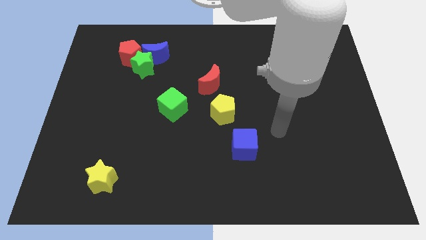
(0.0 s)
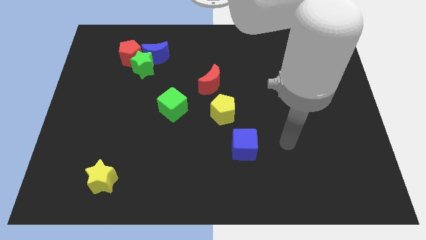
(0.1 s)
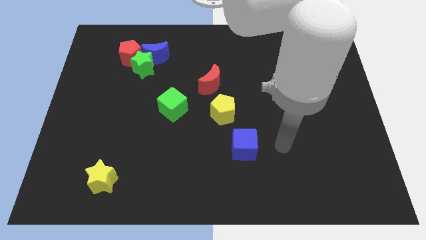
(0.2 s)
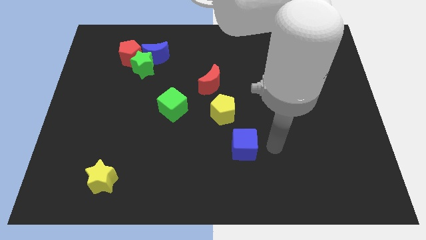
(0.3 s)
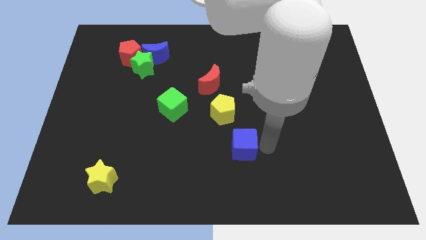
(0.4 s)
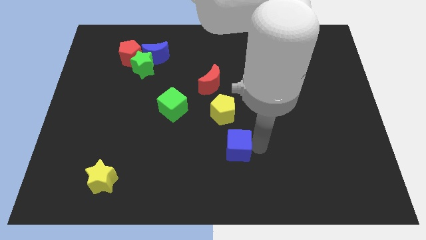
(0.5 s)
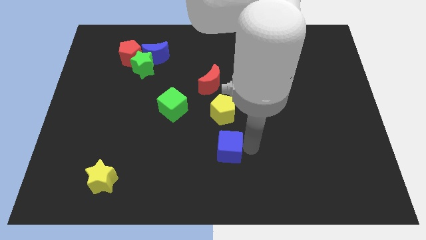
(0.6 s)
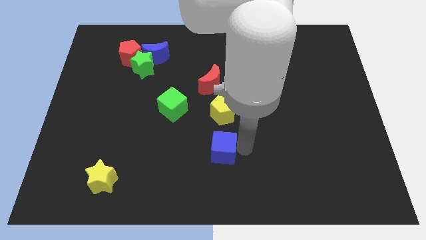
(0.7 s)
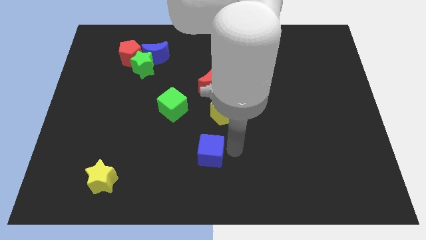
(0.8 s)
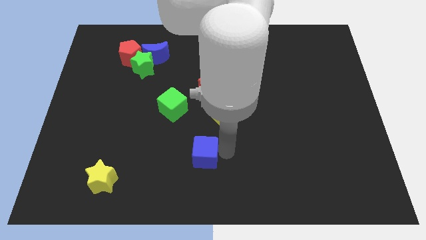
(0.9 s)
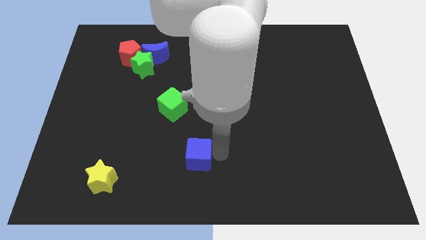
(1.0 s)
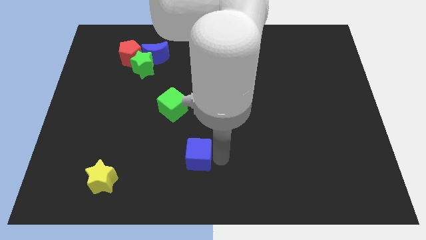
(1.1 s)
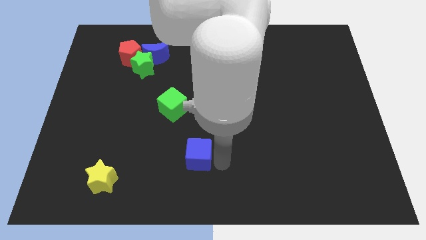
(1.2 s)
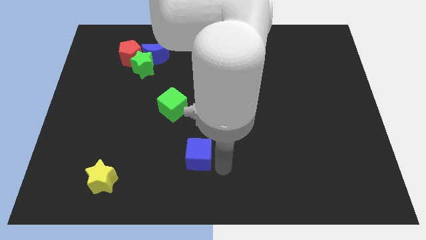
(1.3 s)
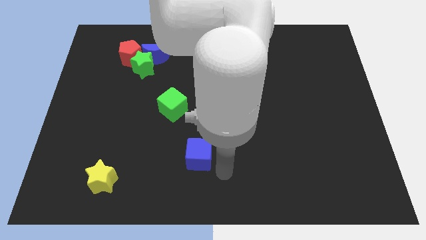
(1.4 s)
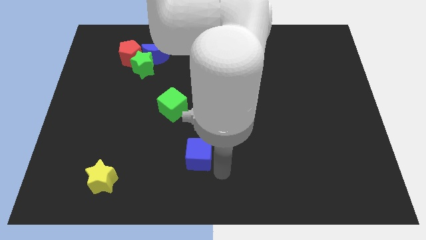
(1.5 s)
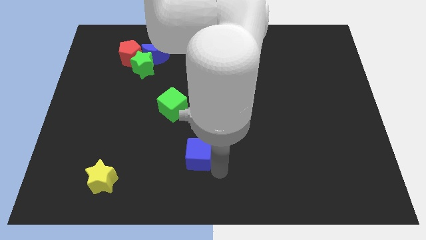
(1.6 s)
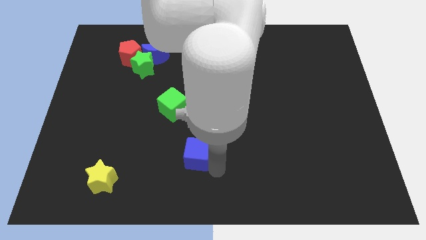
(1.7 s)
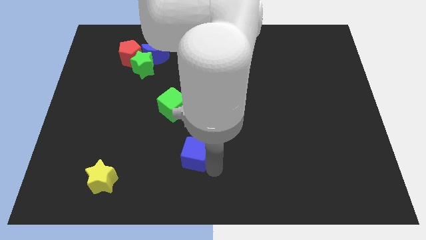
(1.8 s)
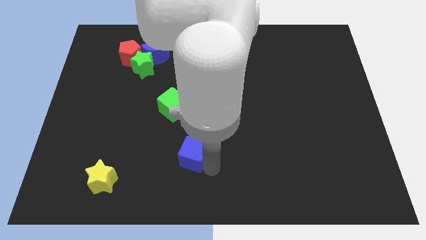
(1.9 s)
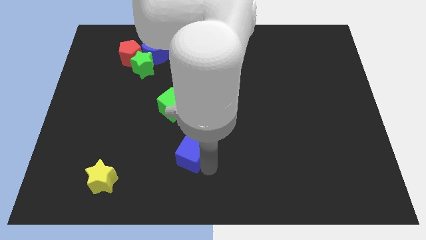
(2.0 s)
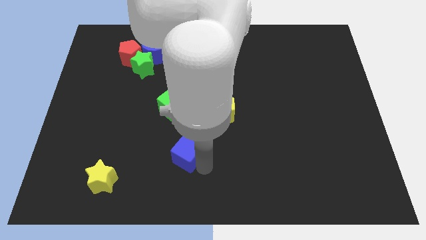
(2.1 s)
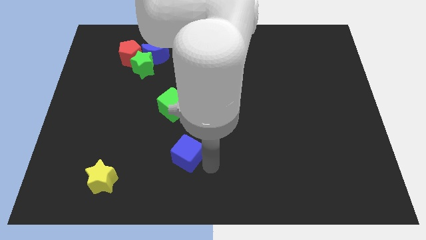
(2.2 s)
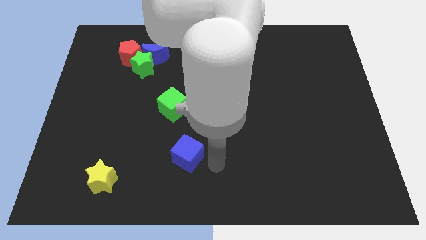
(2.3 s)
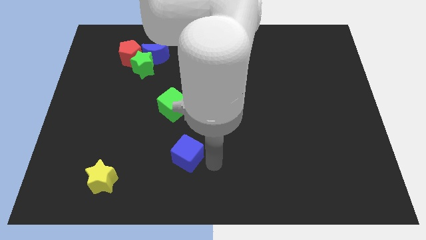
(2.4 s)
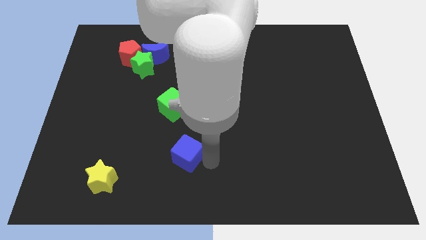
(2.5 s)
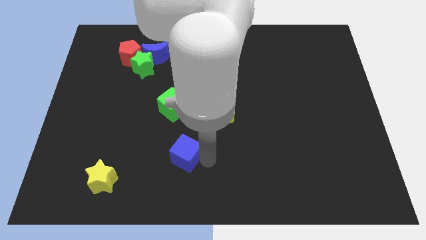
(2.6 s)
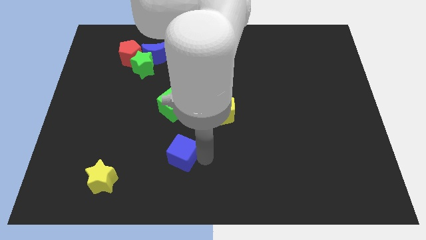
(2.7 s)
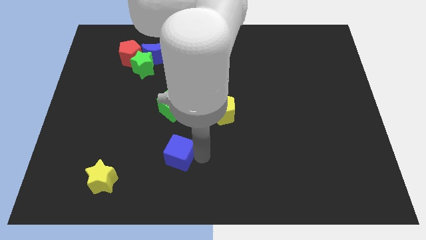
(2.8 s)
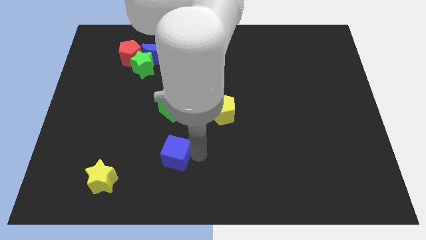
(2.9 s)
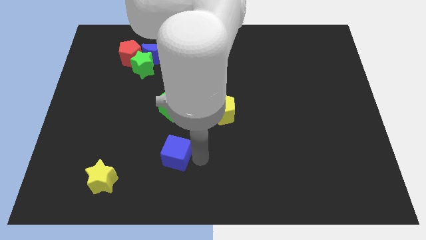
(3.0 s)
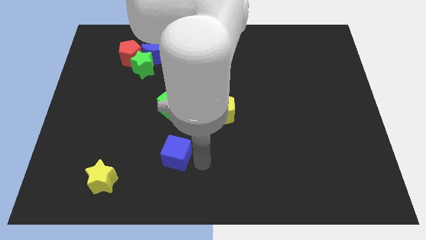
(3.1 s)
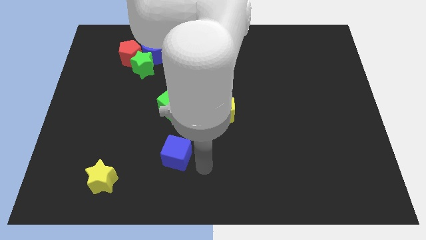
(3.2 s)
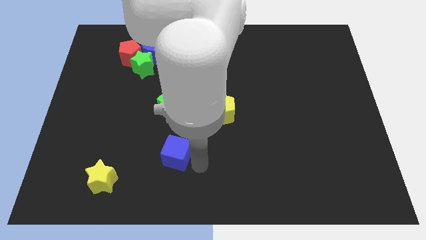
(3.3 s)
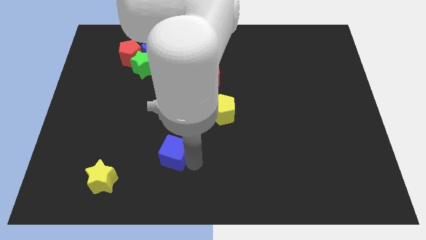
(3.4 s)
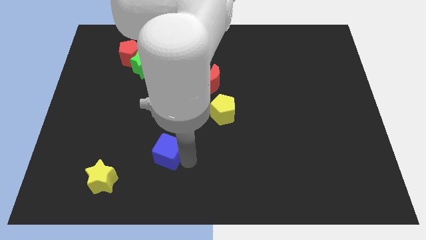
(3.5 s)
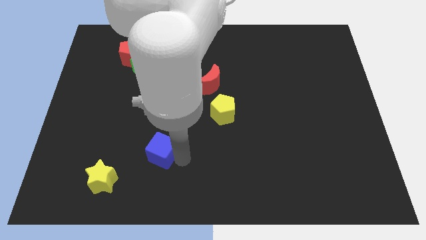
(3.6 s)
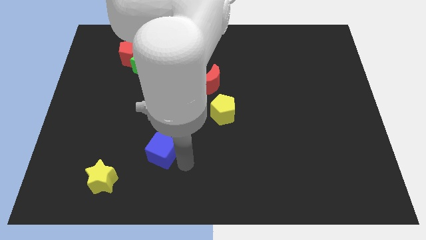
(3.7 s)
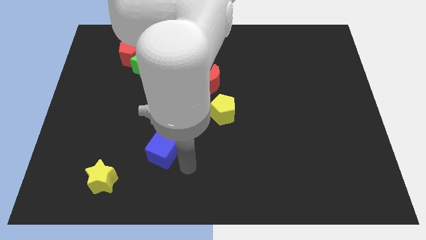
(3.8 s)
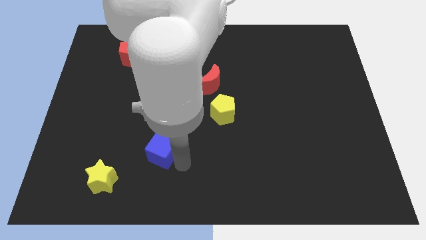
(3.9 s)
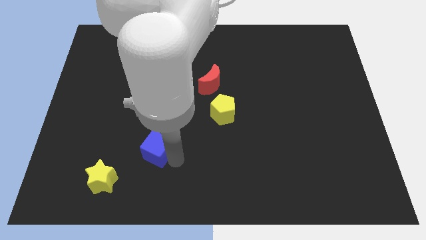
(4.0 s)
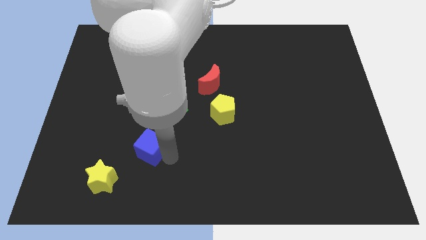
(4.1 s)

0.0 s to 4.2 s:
slide the blue cube left

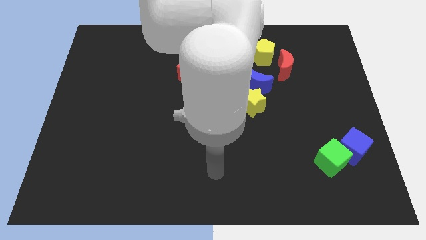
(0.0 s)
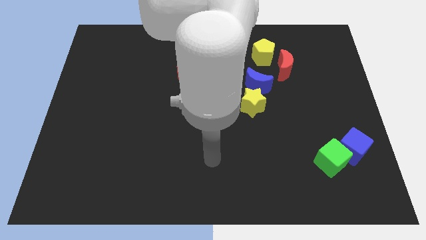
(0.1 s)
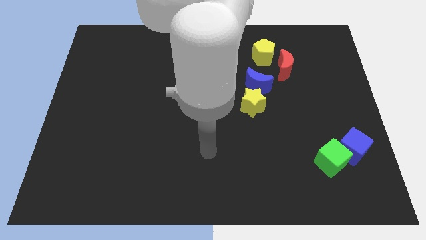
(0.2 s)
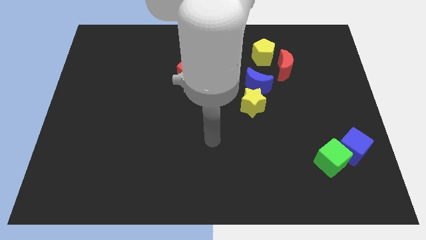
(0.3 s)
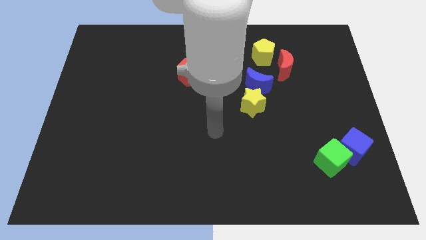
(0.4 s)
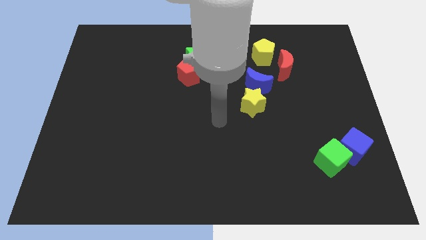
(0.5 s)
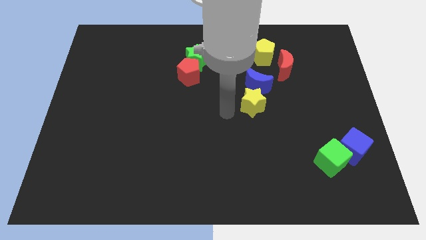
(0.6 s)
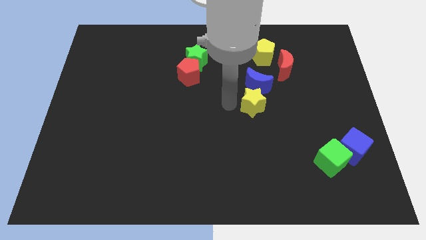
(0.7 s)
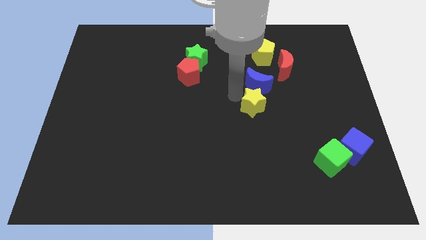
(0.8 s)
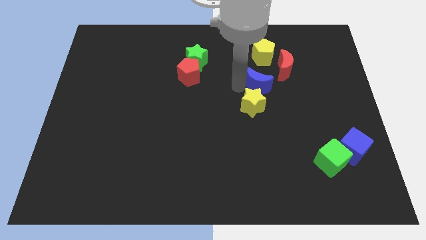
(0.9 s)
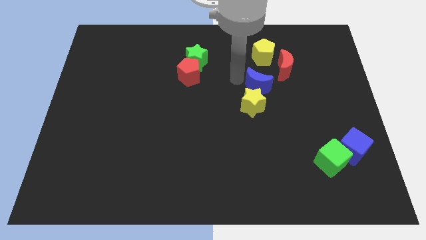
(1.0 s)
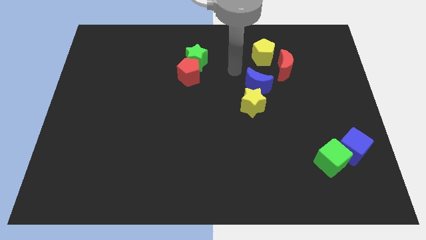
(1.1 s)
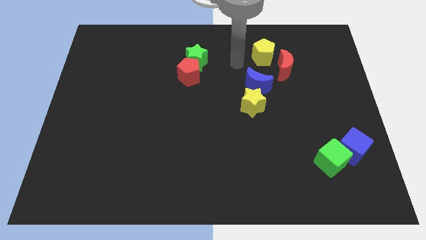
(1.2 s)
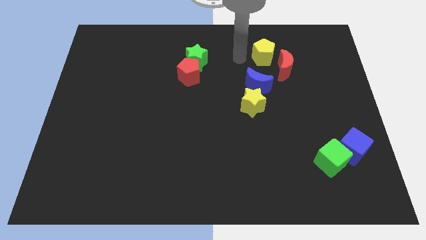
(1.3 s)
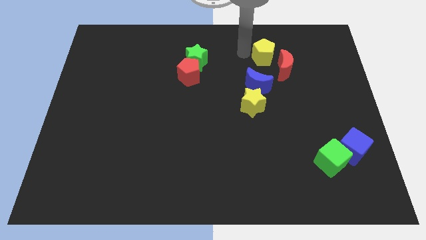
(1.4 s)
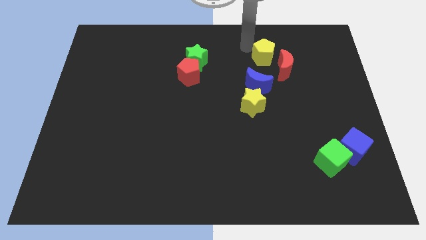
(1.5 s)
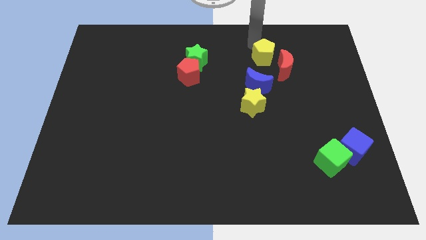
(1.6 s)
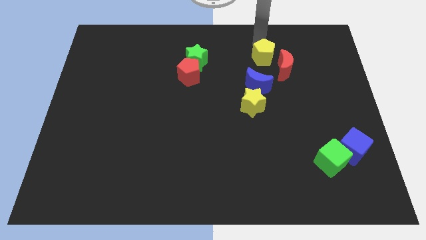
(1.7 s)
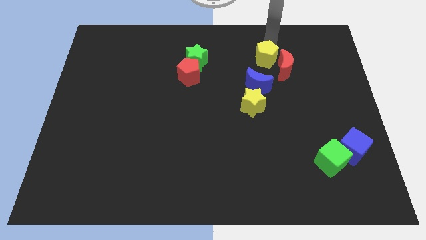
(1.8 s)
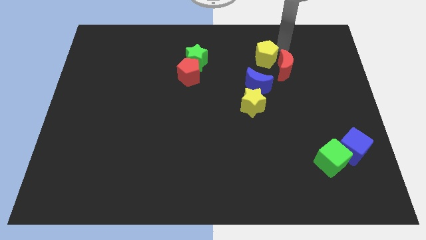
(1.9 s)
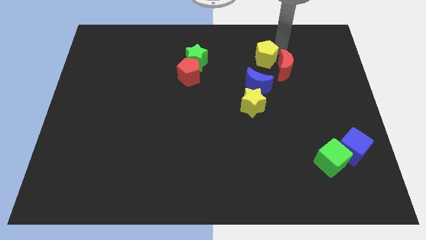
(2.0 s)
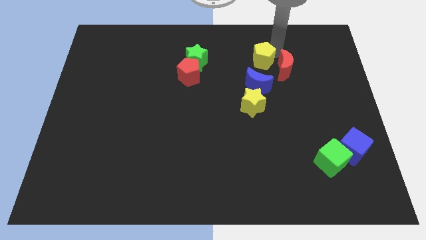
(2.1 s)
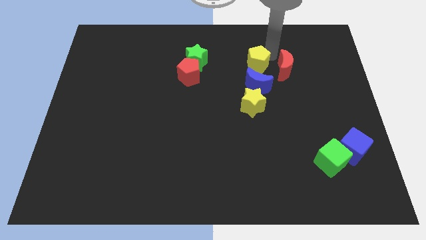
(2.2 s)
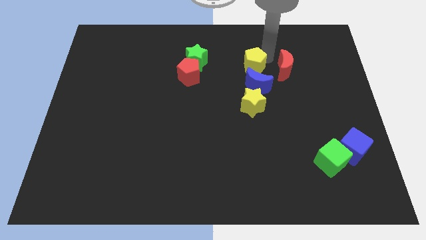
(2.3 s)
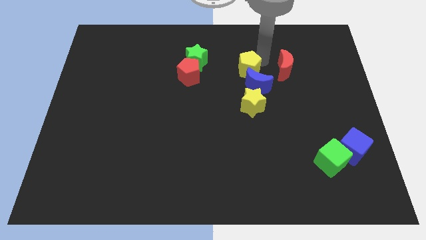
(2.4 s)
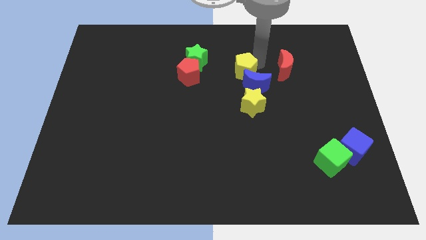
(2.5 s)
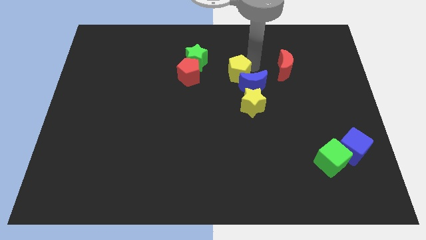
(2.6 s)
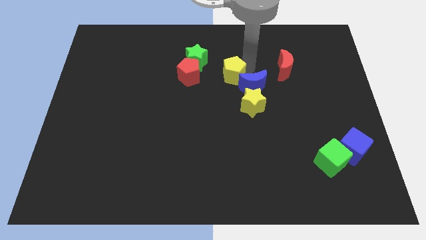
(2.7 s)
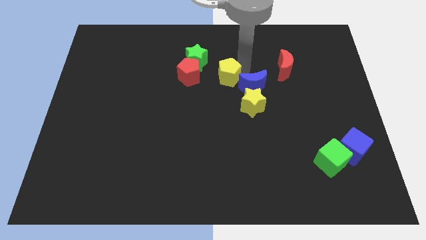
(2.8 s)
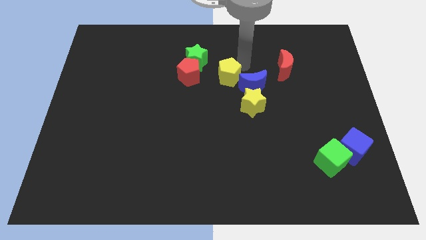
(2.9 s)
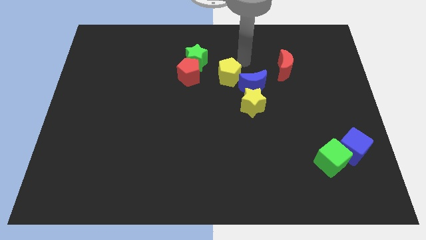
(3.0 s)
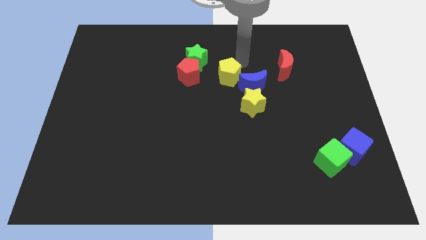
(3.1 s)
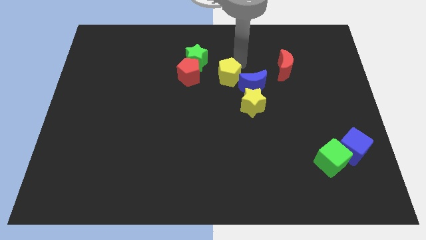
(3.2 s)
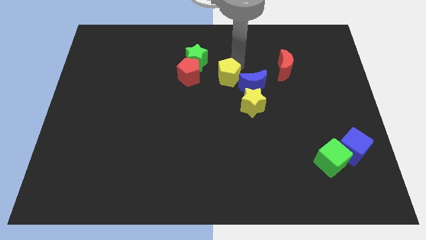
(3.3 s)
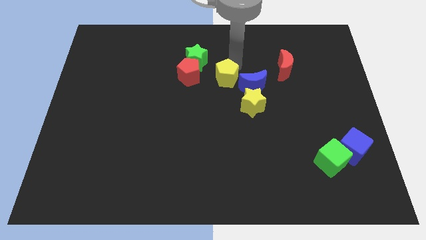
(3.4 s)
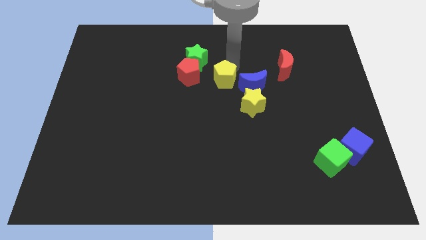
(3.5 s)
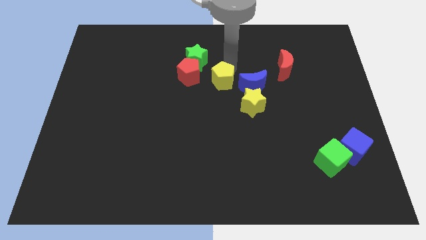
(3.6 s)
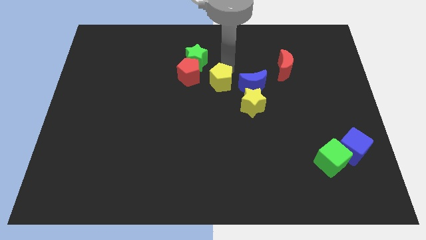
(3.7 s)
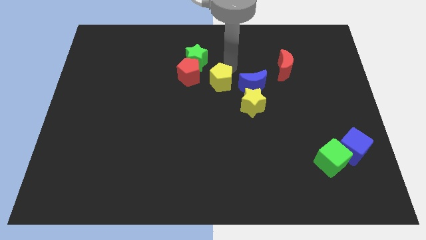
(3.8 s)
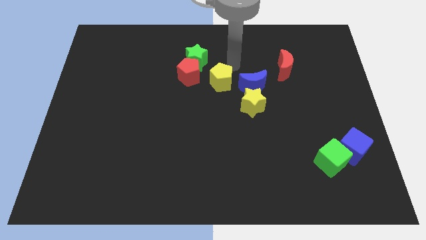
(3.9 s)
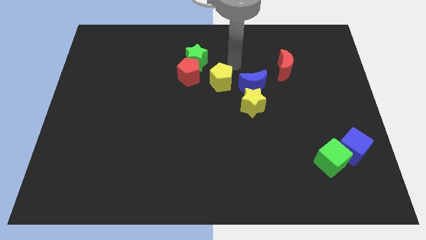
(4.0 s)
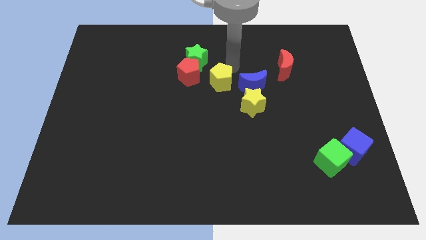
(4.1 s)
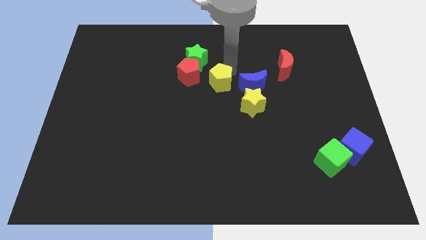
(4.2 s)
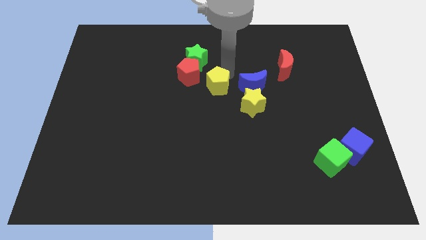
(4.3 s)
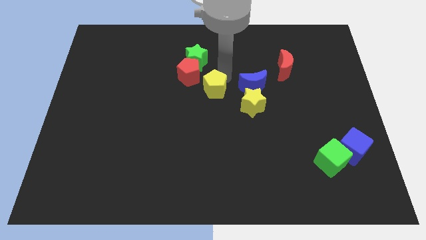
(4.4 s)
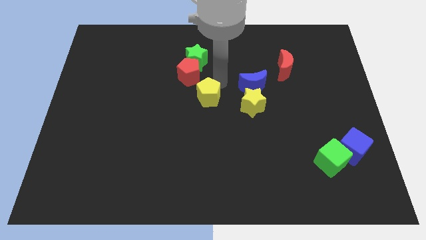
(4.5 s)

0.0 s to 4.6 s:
move the yellow pentagon downwards and to the left
